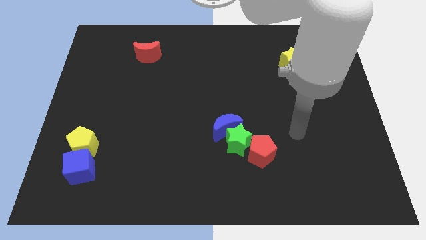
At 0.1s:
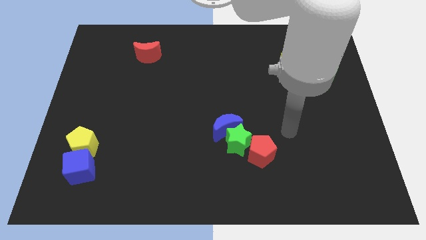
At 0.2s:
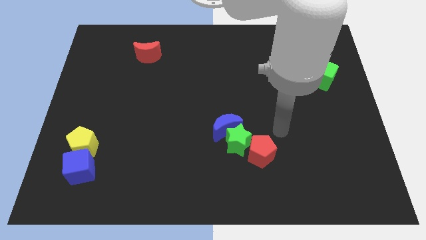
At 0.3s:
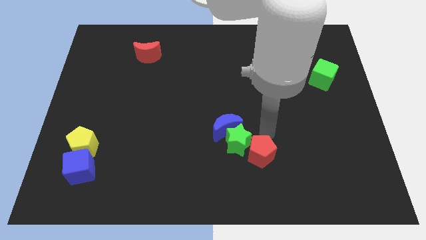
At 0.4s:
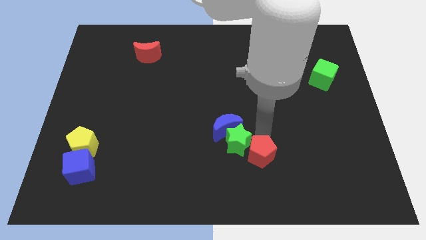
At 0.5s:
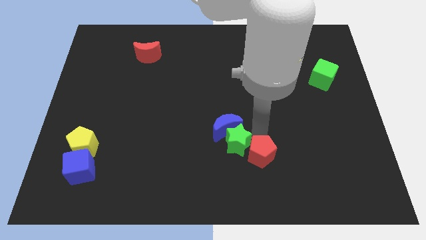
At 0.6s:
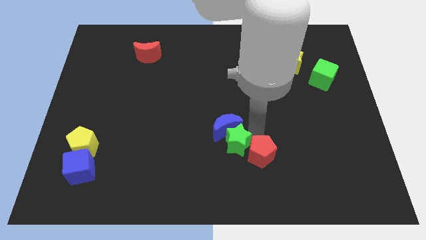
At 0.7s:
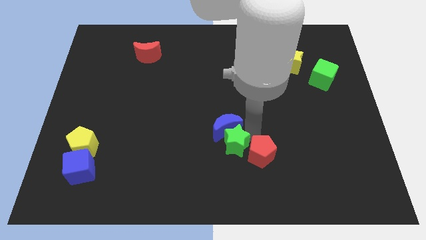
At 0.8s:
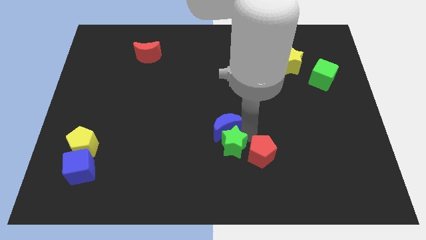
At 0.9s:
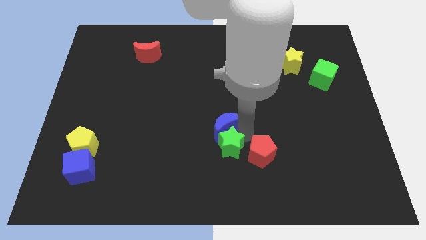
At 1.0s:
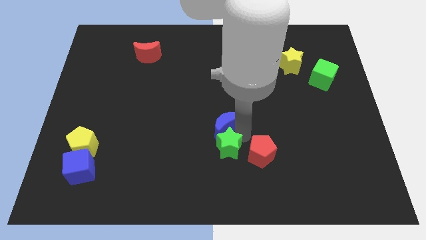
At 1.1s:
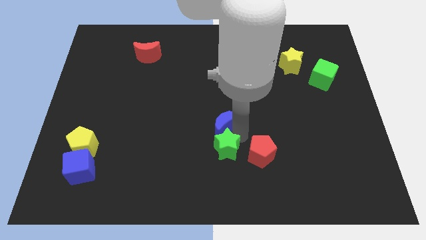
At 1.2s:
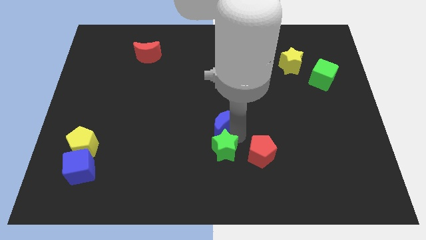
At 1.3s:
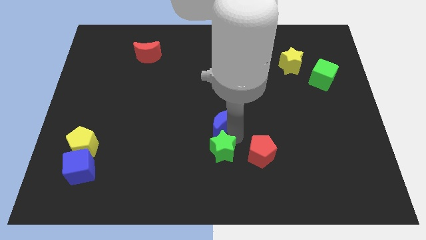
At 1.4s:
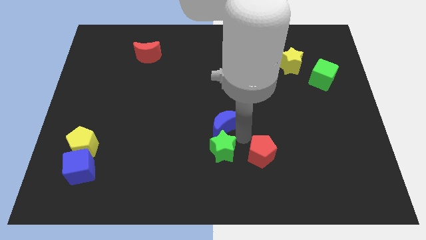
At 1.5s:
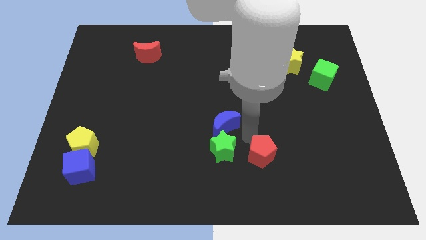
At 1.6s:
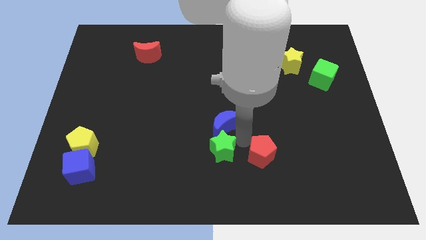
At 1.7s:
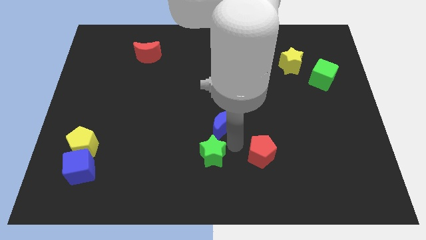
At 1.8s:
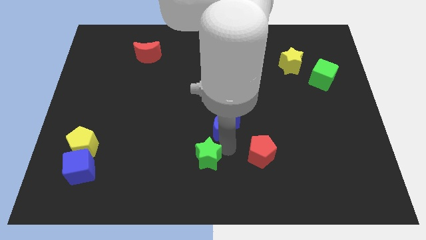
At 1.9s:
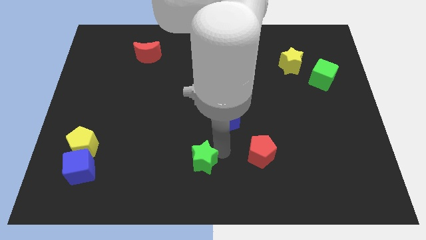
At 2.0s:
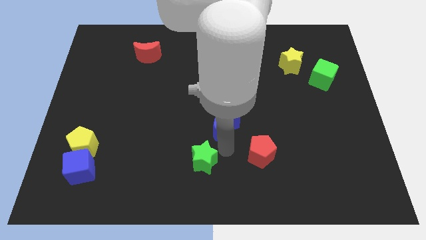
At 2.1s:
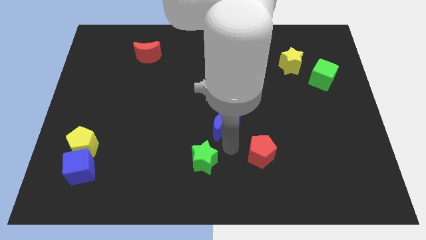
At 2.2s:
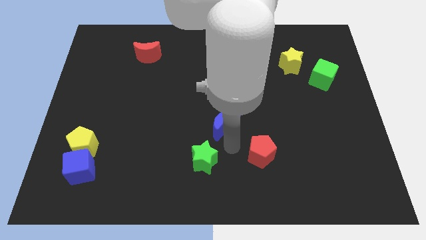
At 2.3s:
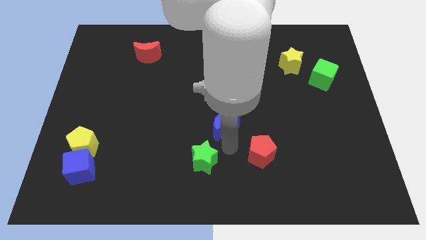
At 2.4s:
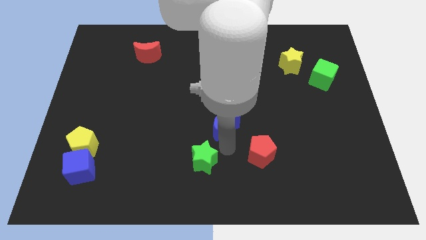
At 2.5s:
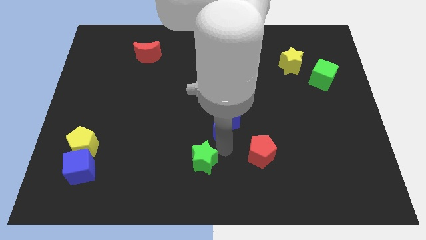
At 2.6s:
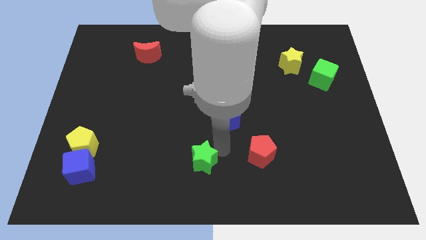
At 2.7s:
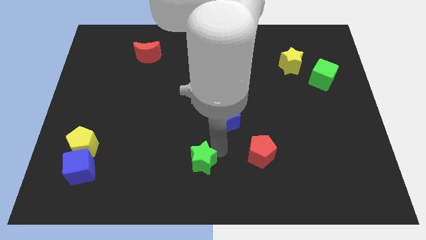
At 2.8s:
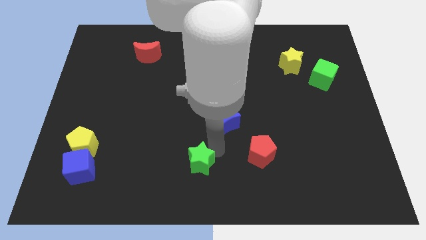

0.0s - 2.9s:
pull the green star apart from the blue moon and red pentagon

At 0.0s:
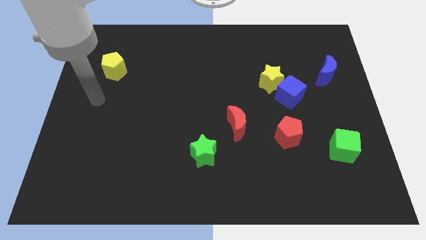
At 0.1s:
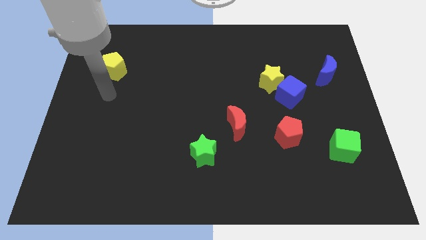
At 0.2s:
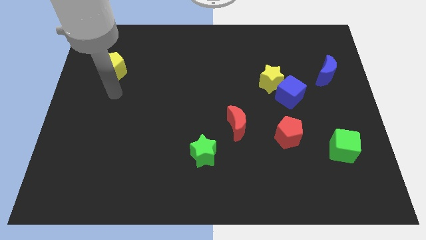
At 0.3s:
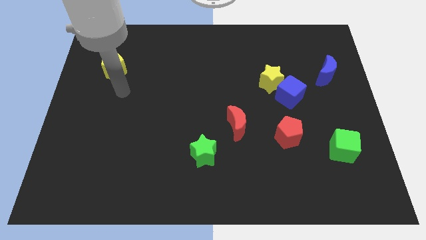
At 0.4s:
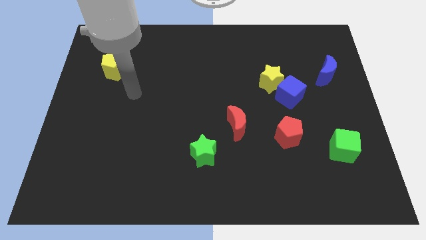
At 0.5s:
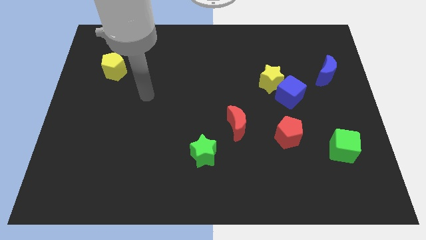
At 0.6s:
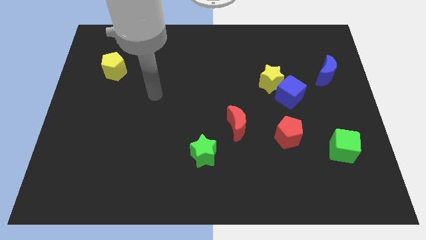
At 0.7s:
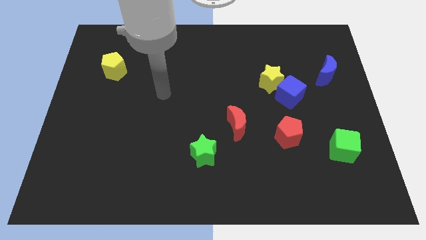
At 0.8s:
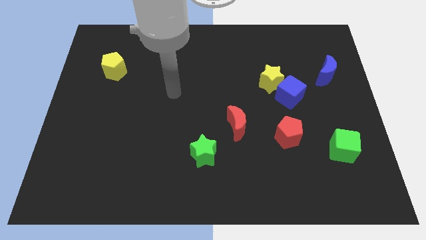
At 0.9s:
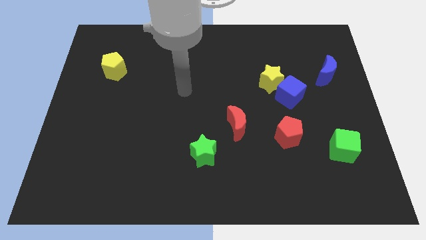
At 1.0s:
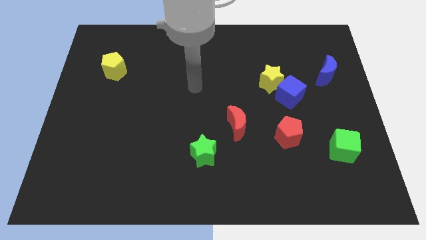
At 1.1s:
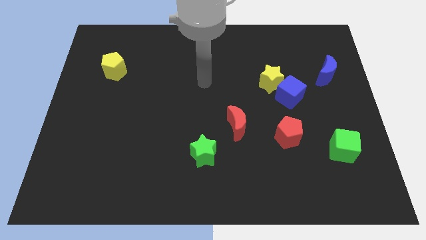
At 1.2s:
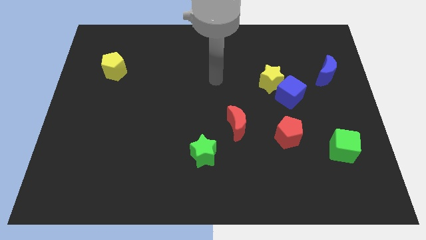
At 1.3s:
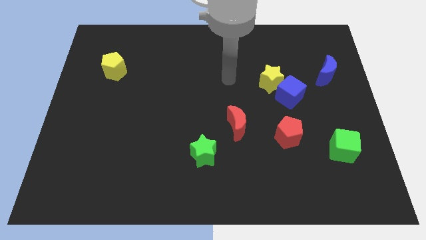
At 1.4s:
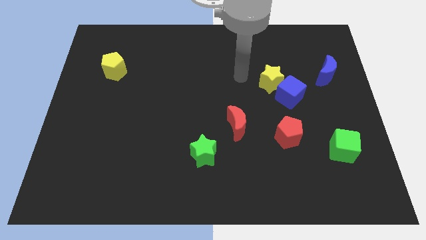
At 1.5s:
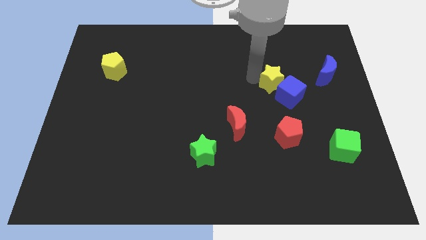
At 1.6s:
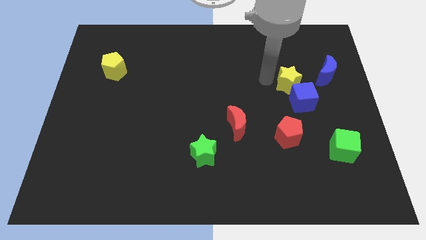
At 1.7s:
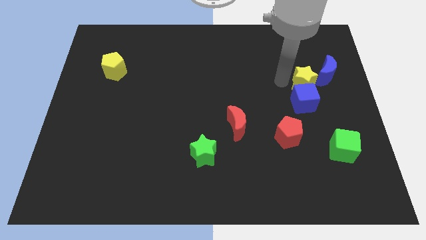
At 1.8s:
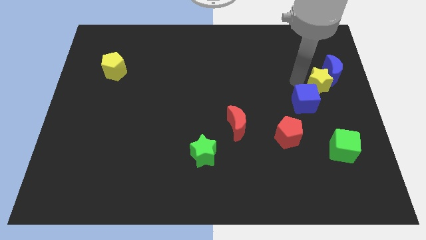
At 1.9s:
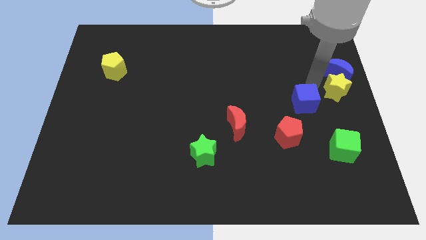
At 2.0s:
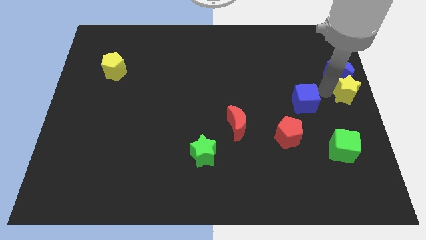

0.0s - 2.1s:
separate the blue cube from the yellow star

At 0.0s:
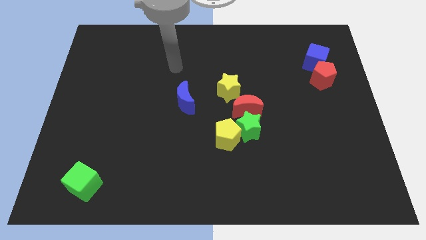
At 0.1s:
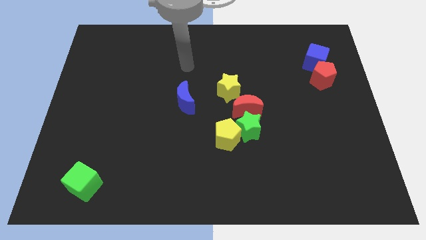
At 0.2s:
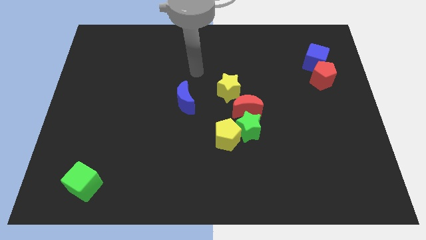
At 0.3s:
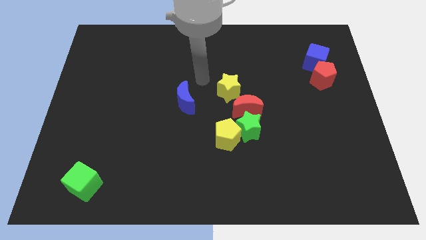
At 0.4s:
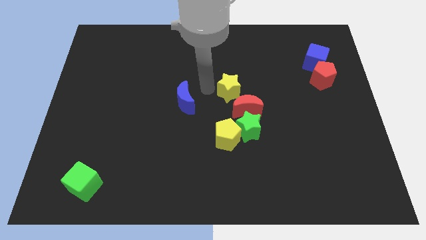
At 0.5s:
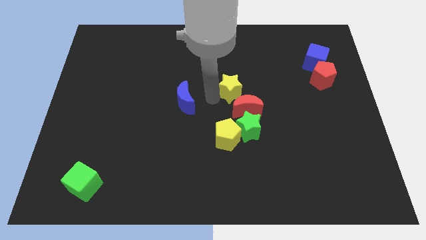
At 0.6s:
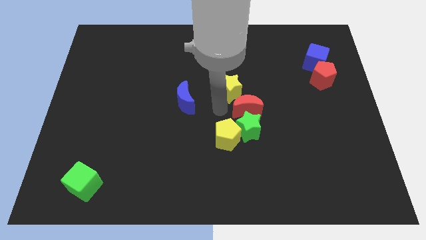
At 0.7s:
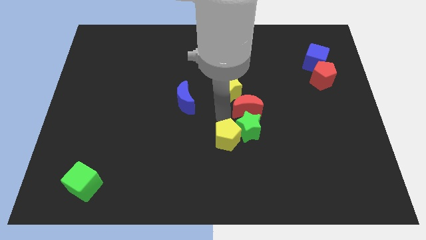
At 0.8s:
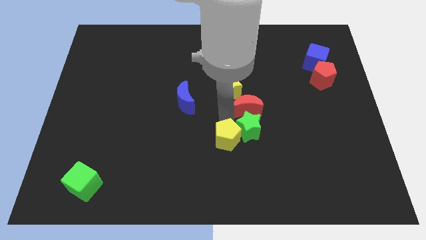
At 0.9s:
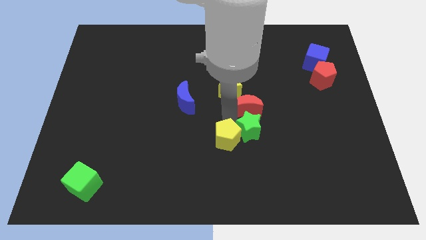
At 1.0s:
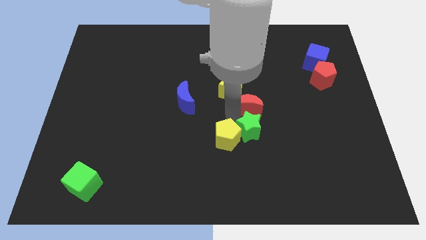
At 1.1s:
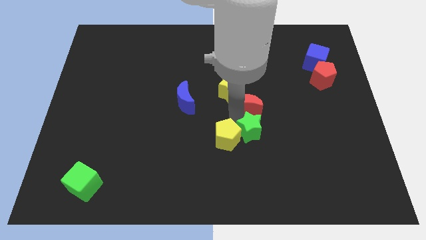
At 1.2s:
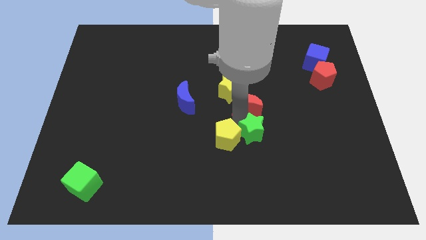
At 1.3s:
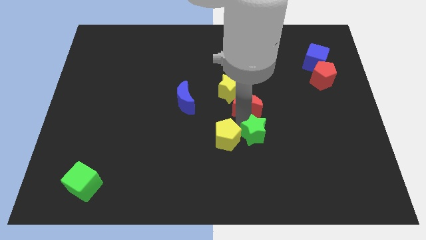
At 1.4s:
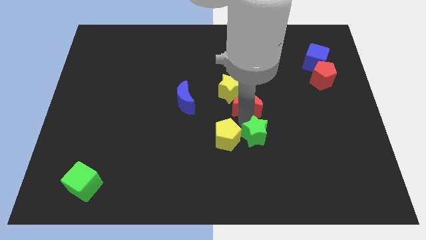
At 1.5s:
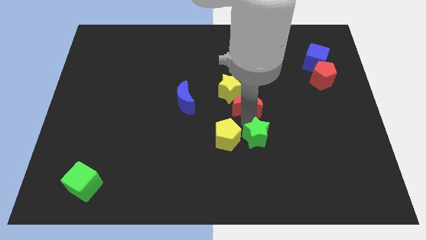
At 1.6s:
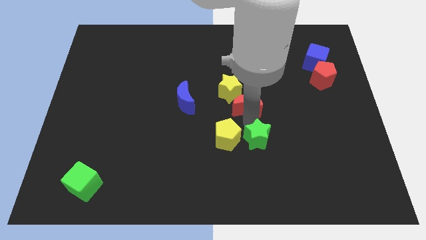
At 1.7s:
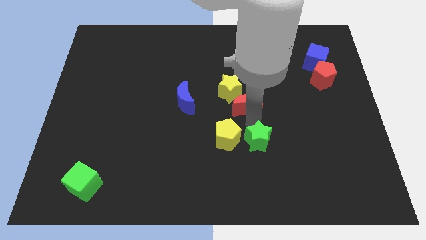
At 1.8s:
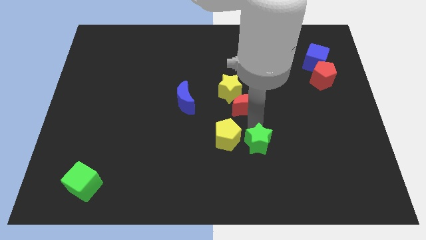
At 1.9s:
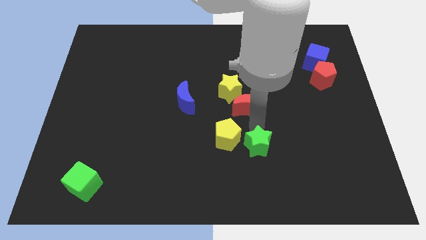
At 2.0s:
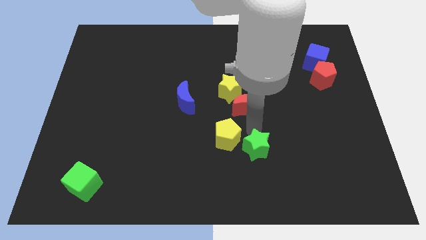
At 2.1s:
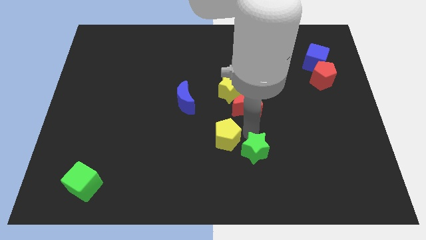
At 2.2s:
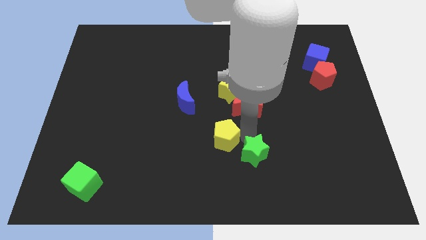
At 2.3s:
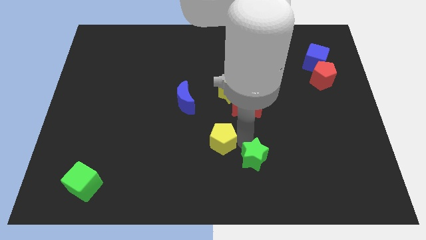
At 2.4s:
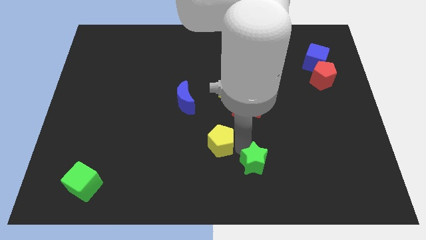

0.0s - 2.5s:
move the green star away from the yellow pentagon and red moon

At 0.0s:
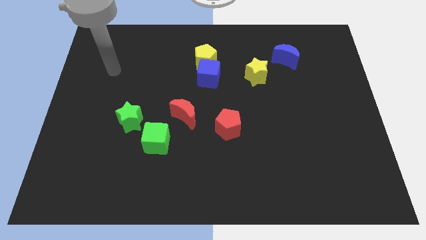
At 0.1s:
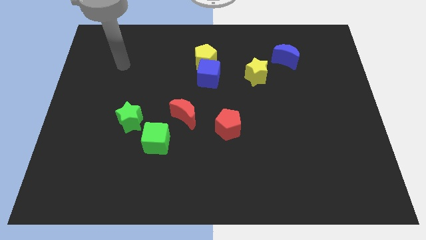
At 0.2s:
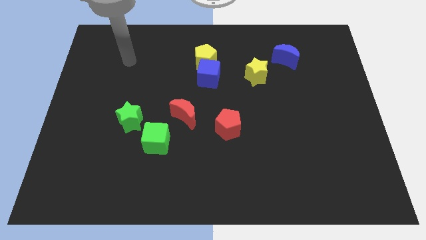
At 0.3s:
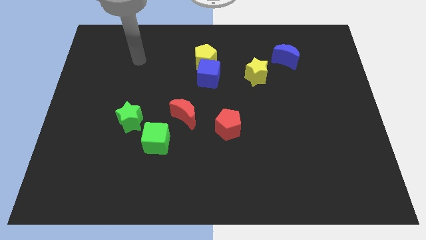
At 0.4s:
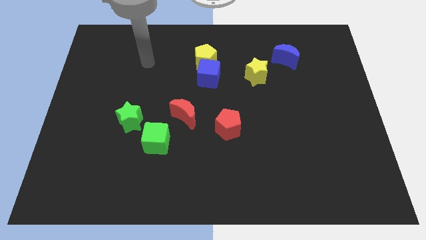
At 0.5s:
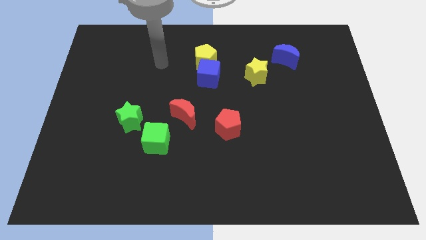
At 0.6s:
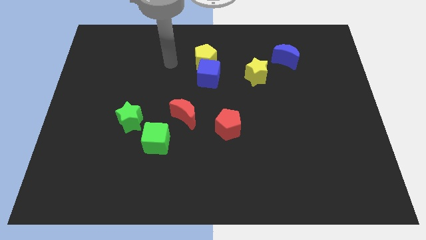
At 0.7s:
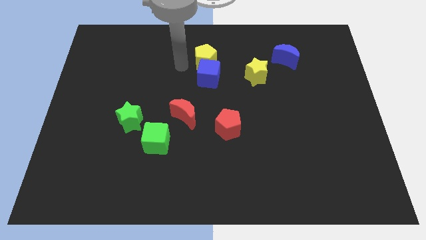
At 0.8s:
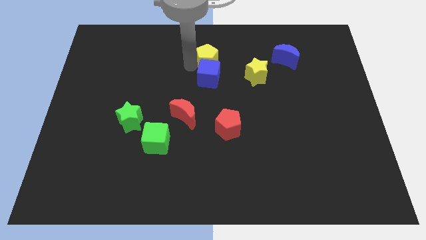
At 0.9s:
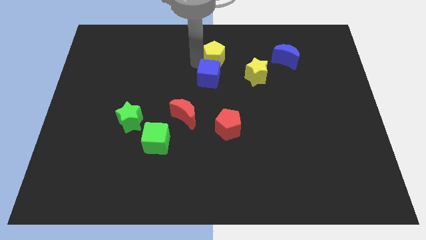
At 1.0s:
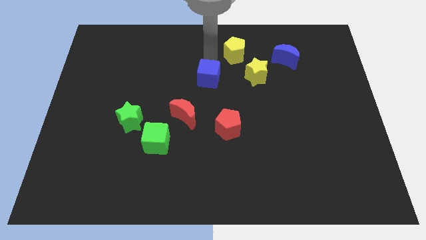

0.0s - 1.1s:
pull the blue cube apart from the yellow pentagon

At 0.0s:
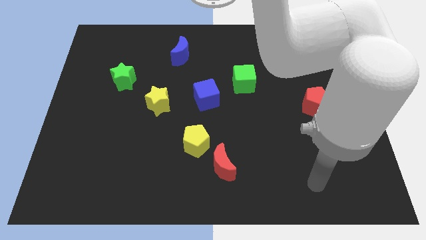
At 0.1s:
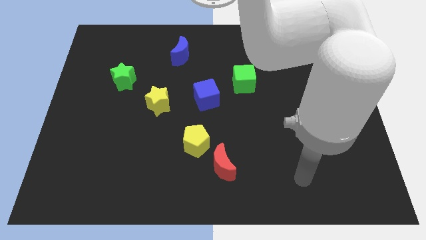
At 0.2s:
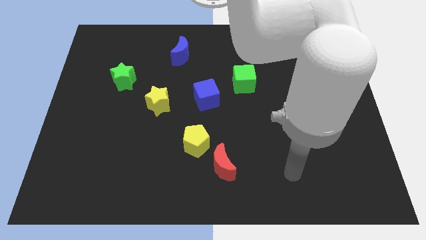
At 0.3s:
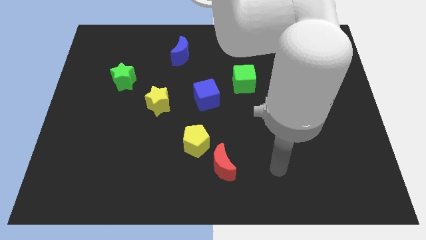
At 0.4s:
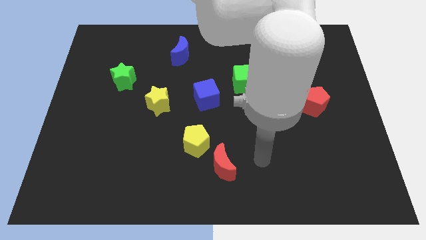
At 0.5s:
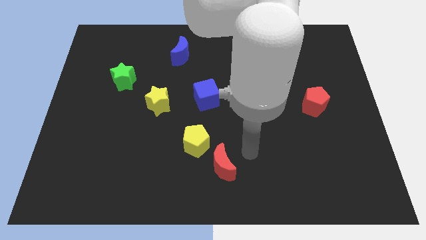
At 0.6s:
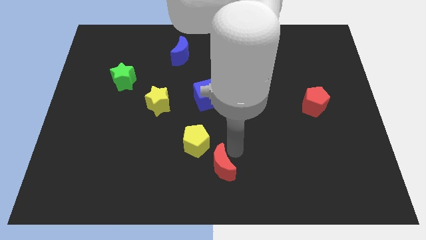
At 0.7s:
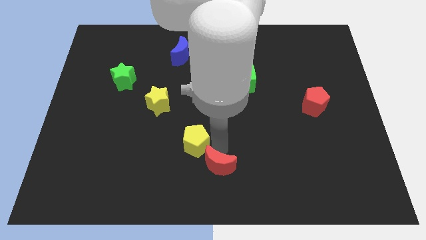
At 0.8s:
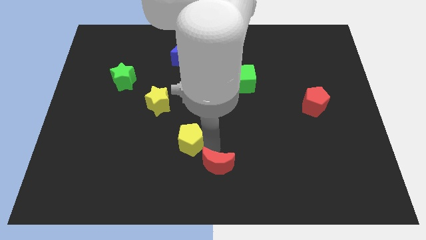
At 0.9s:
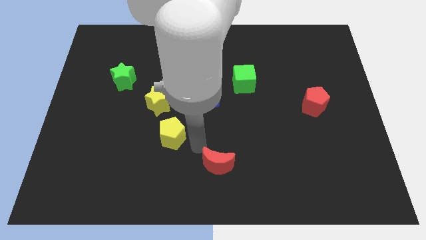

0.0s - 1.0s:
move the red moon away from the yellow pentagon
